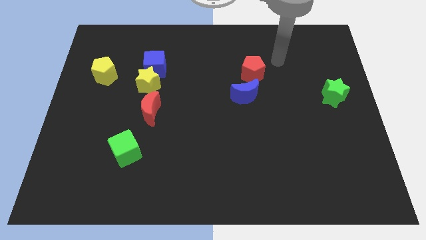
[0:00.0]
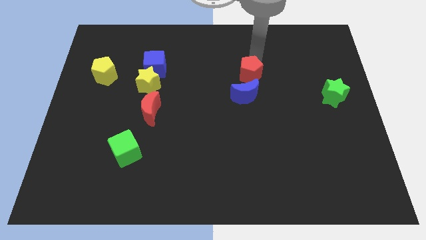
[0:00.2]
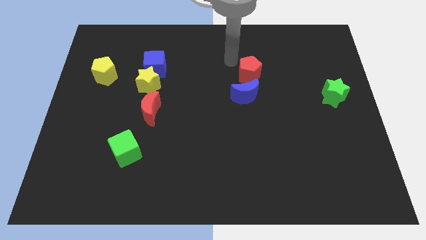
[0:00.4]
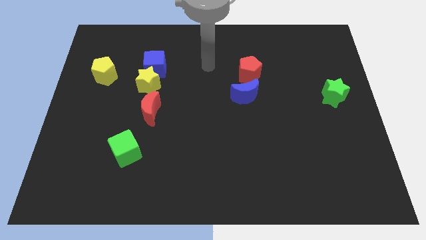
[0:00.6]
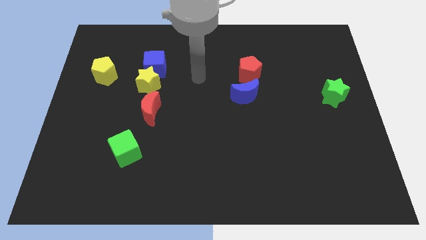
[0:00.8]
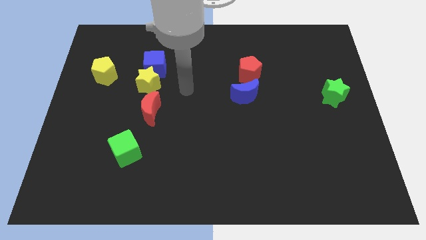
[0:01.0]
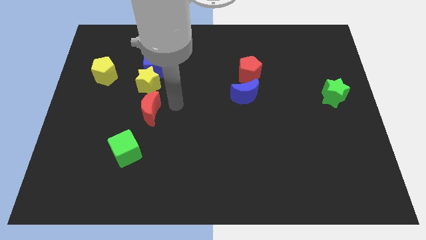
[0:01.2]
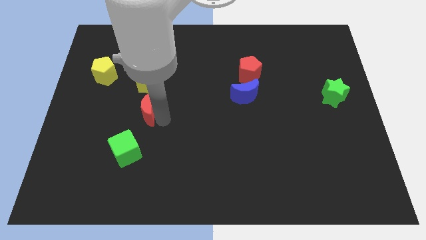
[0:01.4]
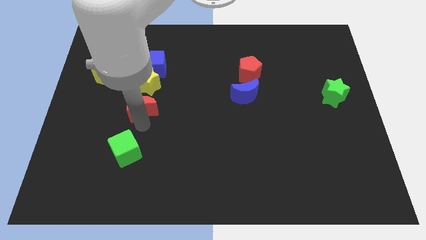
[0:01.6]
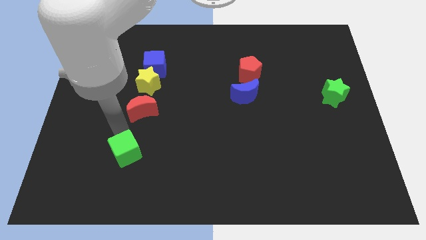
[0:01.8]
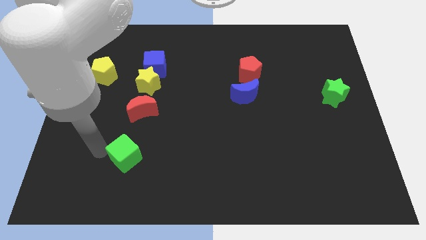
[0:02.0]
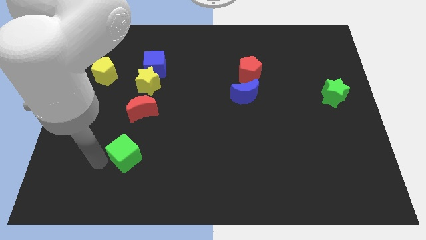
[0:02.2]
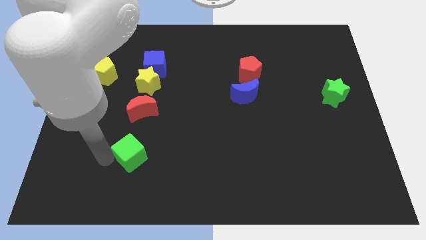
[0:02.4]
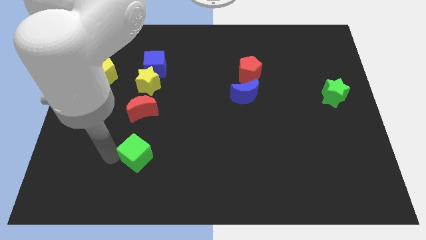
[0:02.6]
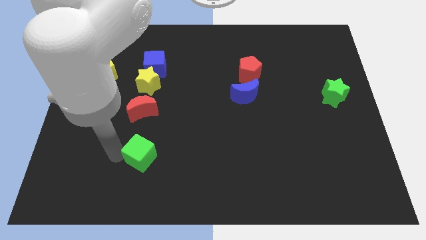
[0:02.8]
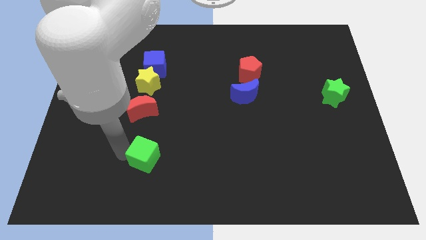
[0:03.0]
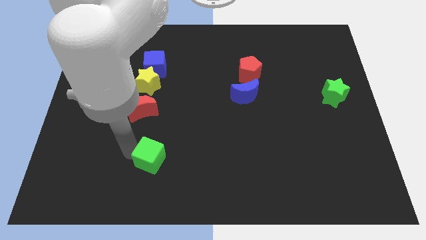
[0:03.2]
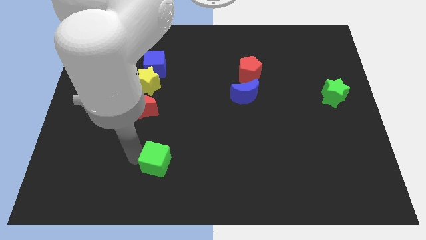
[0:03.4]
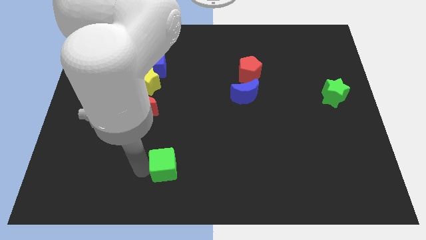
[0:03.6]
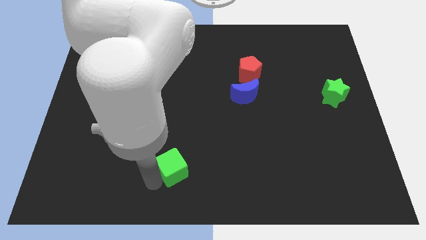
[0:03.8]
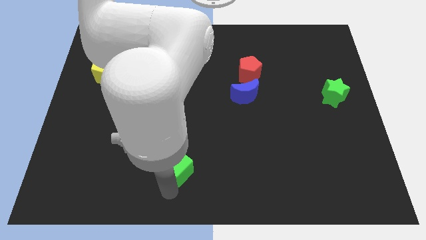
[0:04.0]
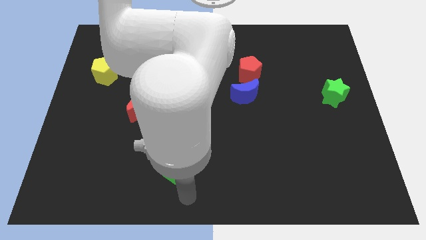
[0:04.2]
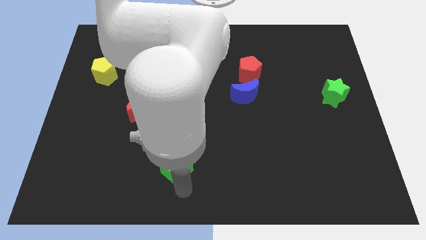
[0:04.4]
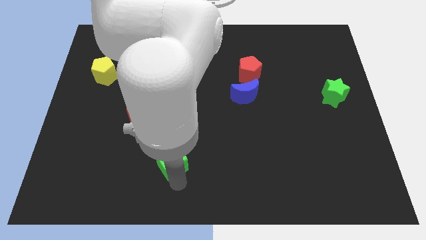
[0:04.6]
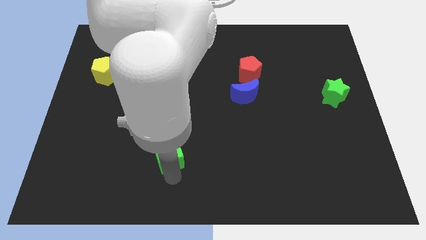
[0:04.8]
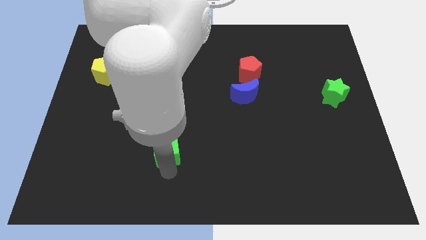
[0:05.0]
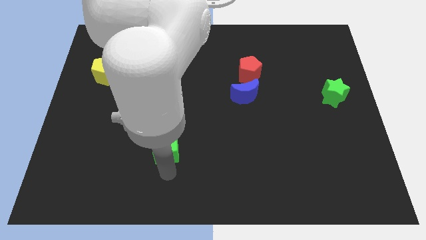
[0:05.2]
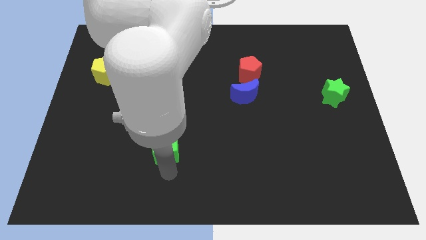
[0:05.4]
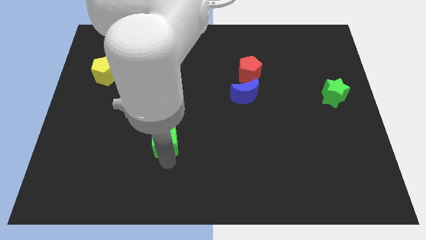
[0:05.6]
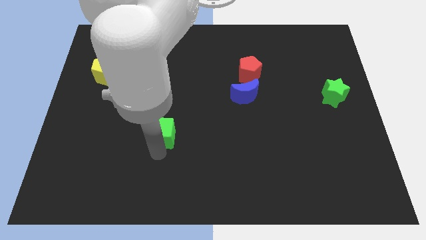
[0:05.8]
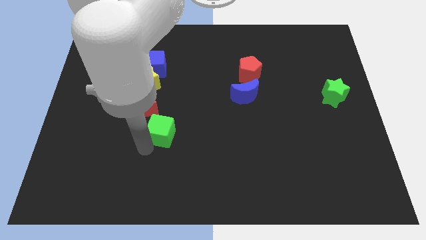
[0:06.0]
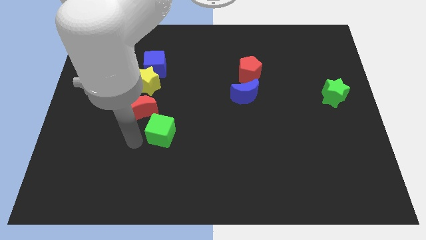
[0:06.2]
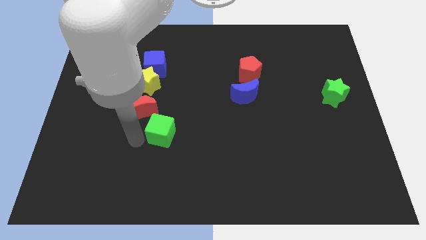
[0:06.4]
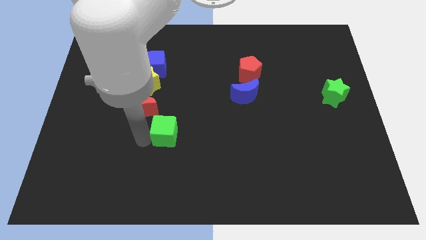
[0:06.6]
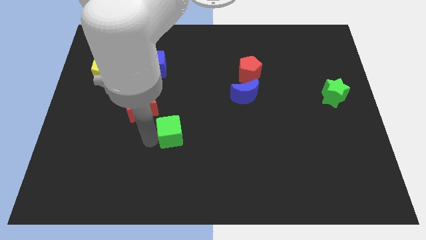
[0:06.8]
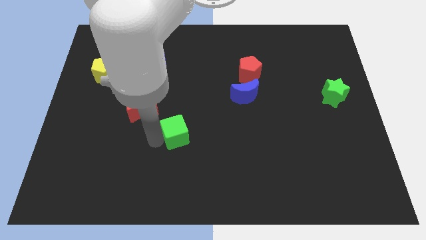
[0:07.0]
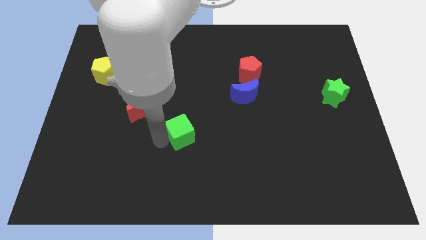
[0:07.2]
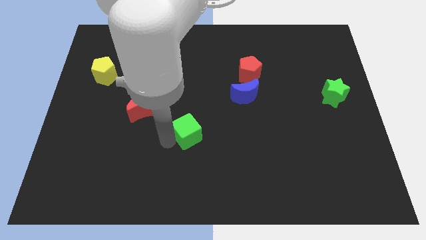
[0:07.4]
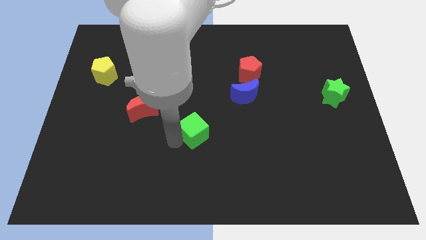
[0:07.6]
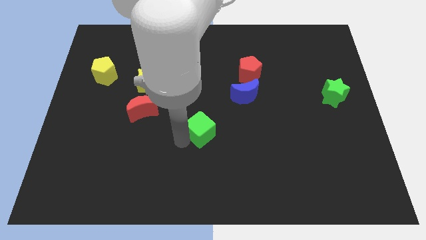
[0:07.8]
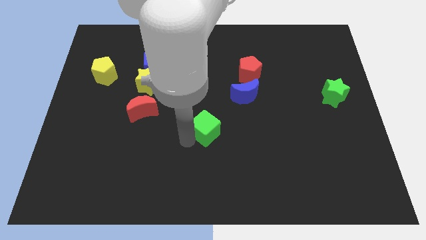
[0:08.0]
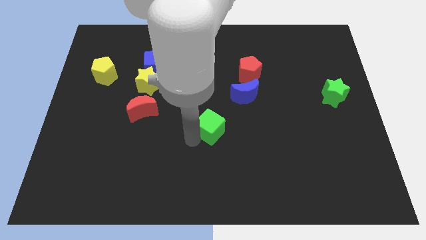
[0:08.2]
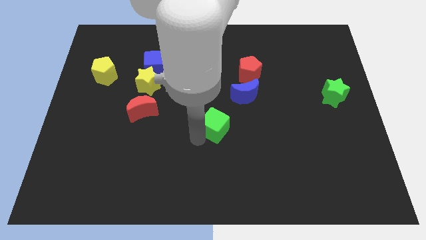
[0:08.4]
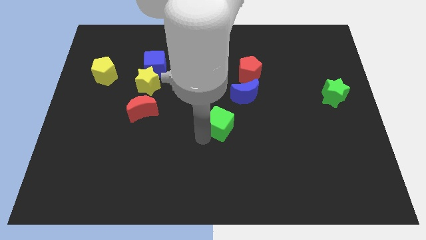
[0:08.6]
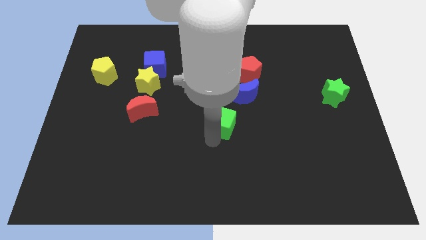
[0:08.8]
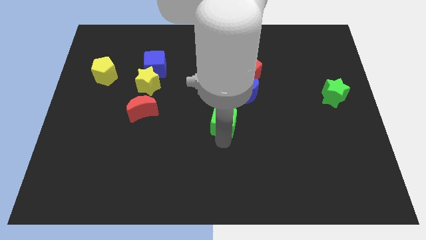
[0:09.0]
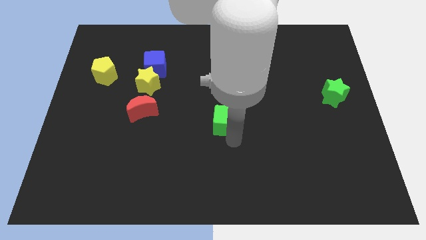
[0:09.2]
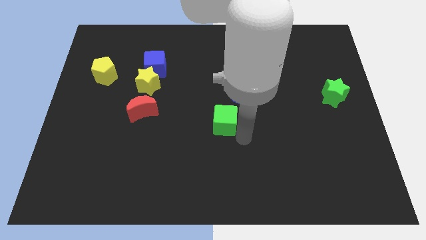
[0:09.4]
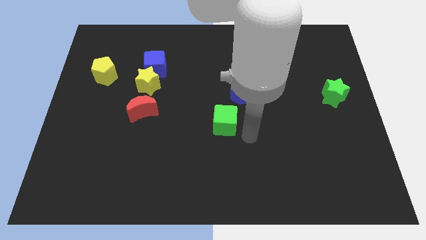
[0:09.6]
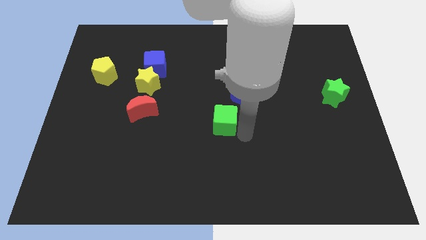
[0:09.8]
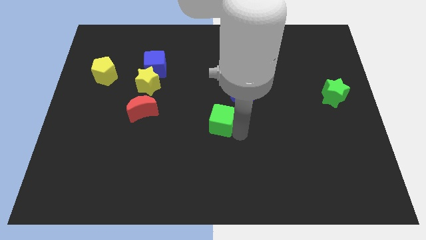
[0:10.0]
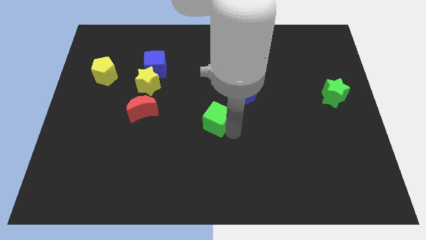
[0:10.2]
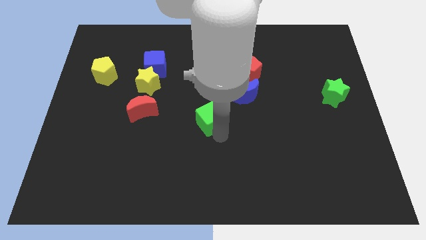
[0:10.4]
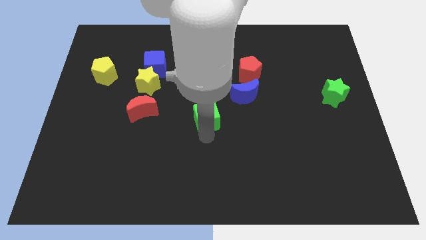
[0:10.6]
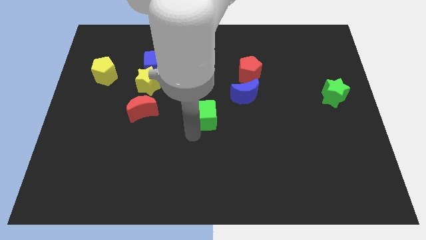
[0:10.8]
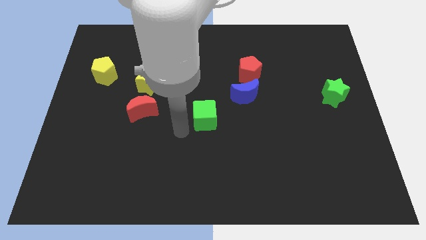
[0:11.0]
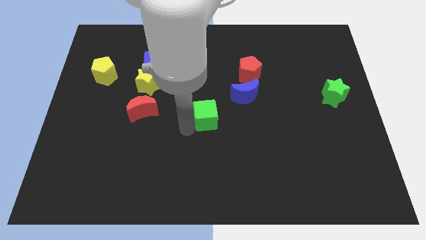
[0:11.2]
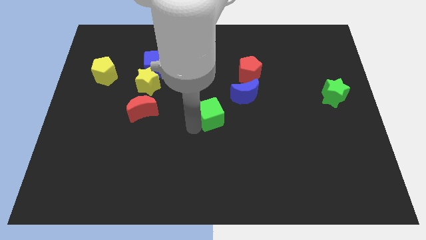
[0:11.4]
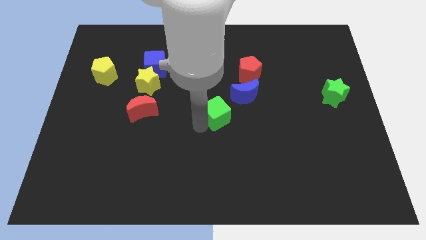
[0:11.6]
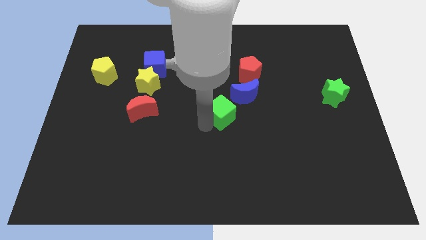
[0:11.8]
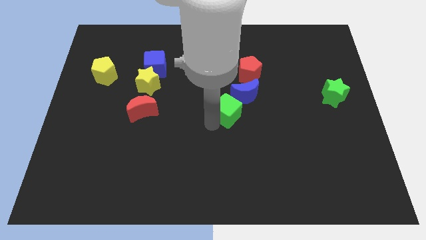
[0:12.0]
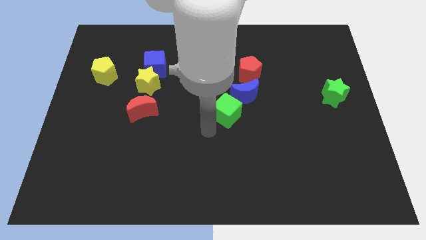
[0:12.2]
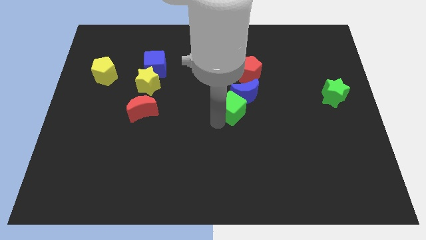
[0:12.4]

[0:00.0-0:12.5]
move the green cube towards the blue moon

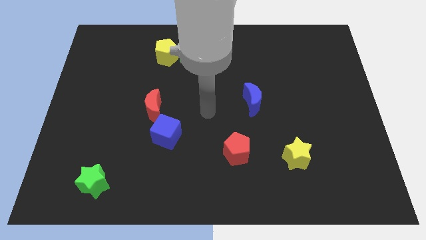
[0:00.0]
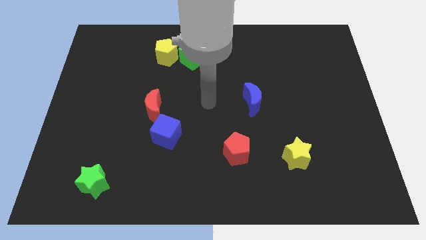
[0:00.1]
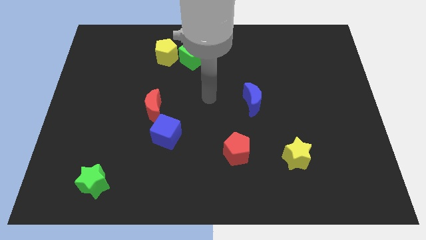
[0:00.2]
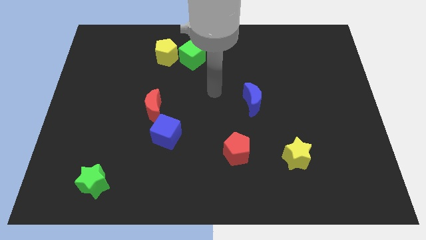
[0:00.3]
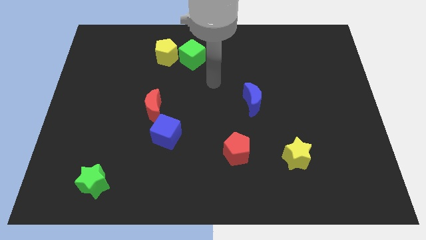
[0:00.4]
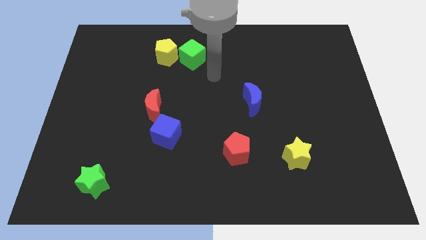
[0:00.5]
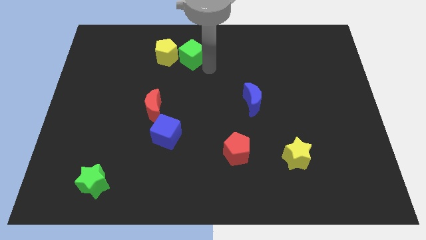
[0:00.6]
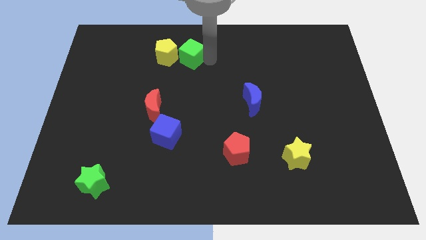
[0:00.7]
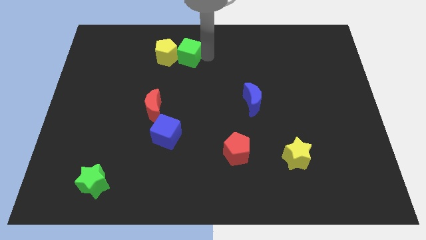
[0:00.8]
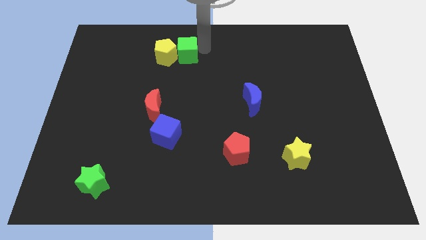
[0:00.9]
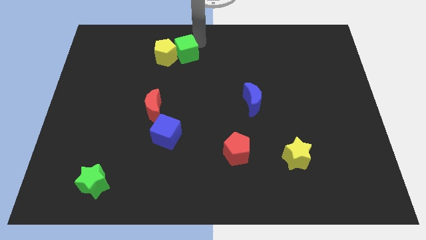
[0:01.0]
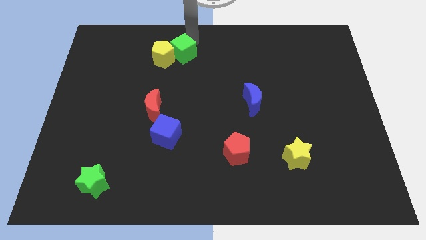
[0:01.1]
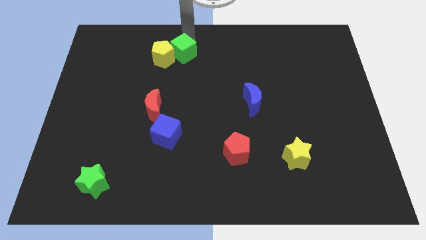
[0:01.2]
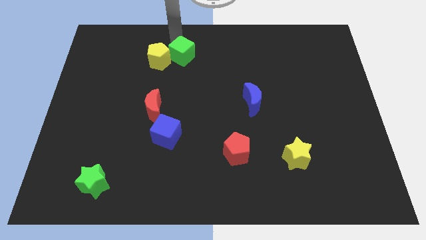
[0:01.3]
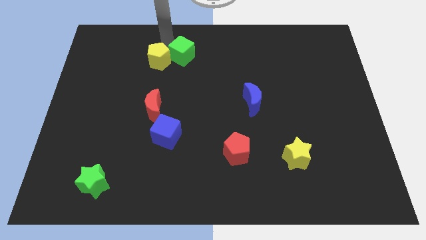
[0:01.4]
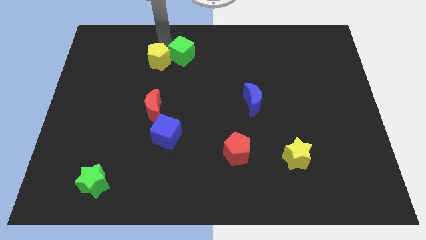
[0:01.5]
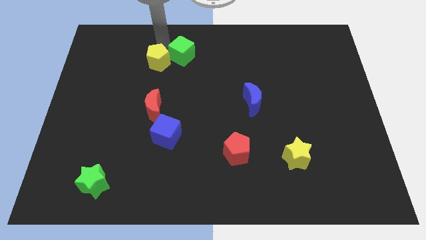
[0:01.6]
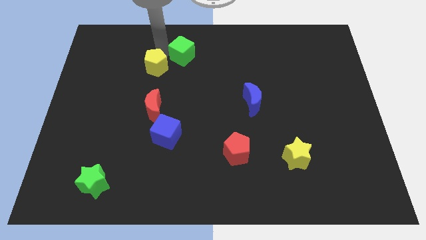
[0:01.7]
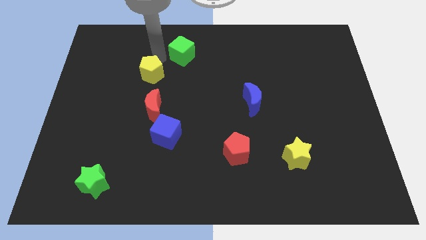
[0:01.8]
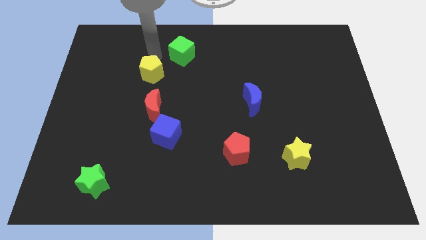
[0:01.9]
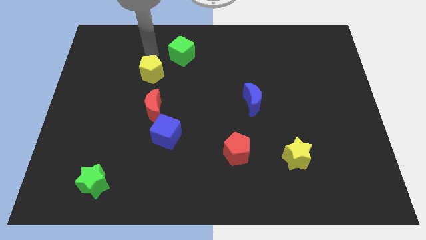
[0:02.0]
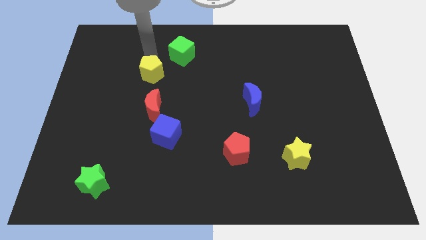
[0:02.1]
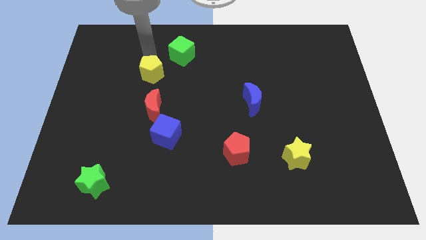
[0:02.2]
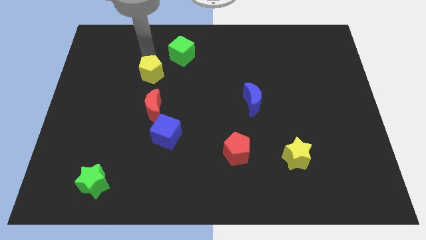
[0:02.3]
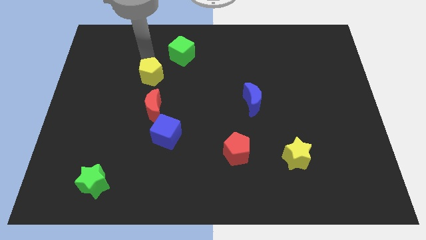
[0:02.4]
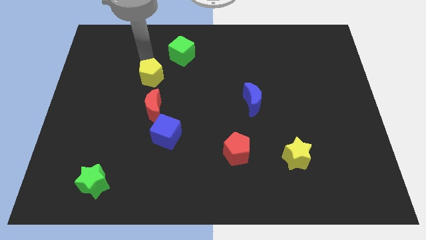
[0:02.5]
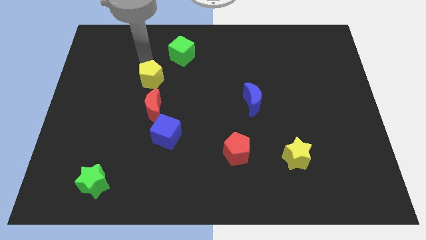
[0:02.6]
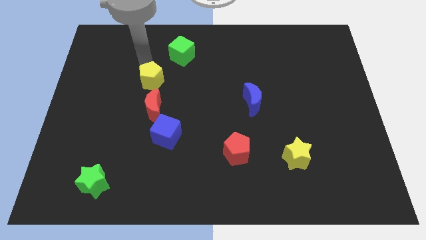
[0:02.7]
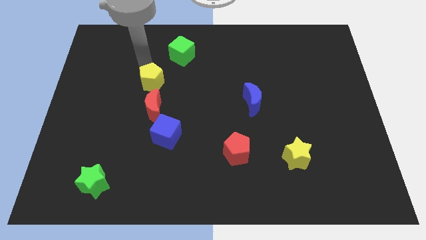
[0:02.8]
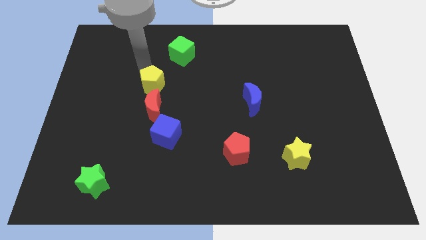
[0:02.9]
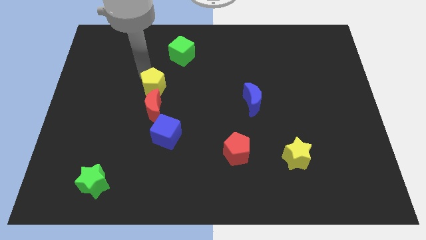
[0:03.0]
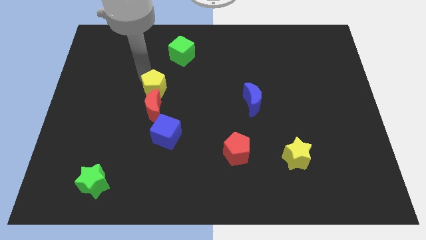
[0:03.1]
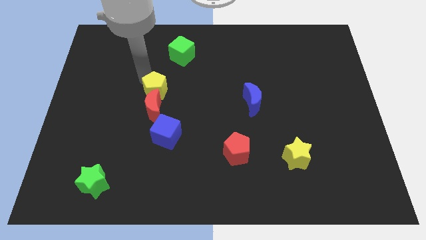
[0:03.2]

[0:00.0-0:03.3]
slide the yellow pentagon to the red moon
